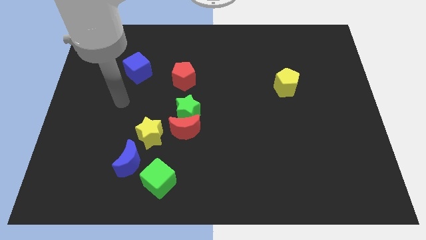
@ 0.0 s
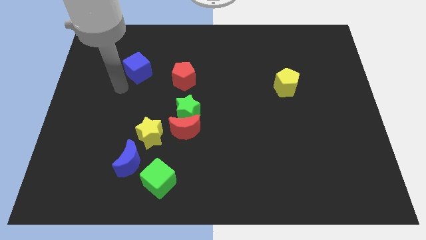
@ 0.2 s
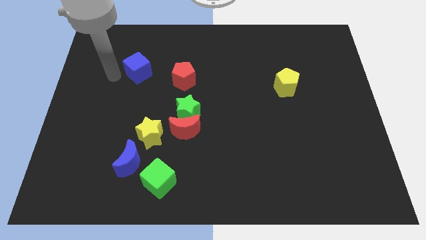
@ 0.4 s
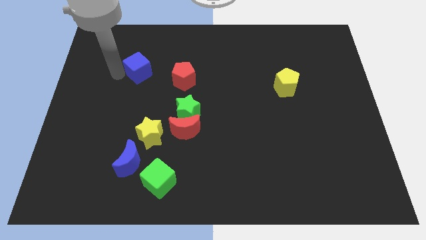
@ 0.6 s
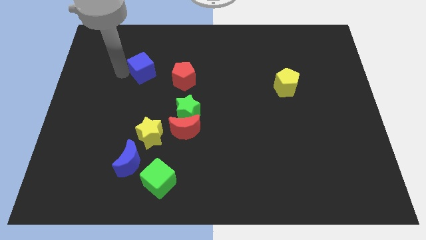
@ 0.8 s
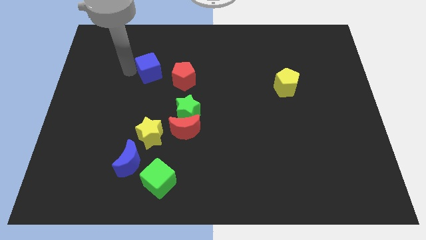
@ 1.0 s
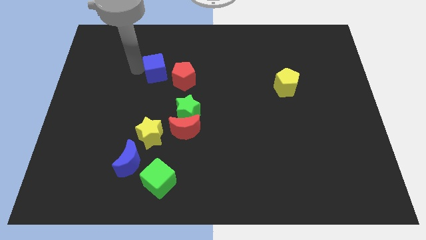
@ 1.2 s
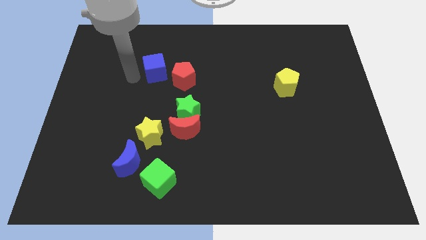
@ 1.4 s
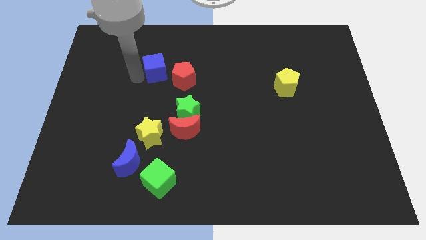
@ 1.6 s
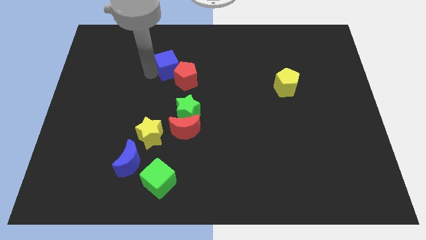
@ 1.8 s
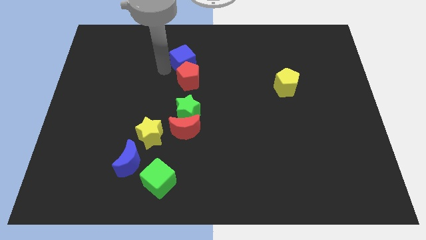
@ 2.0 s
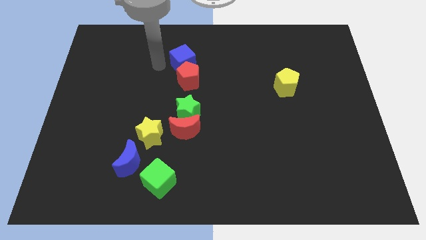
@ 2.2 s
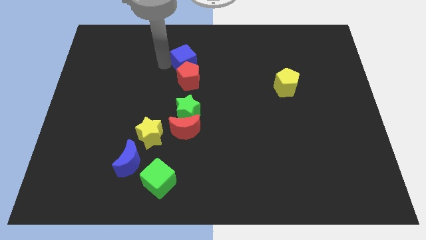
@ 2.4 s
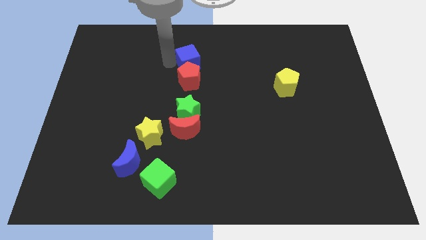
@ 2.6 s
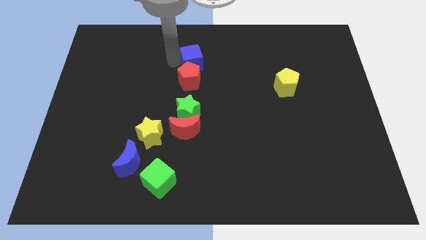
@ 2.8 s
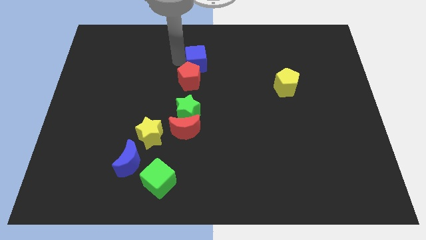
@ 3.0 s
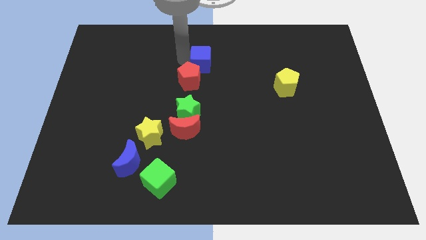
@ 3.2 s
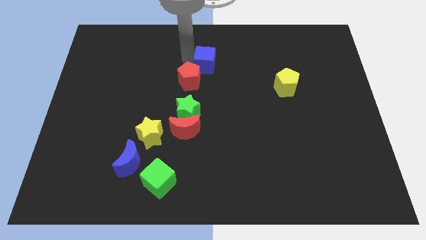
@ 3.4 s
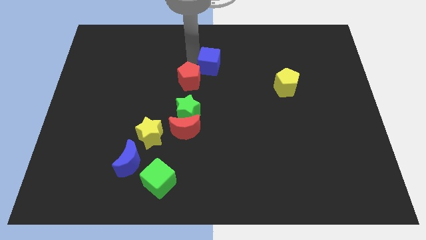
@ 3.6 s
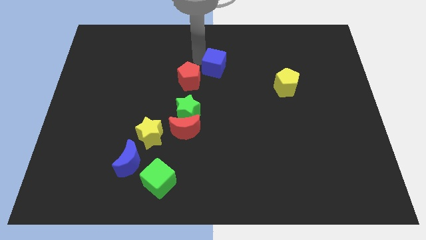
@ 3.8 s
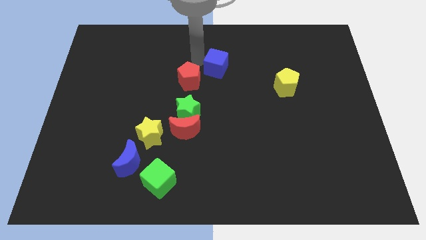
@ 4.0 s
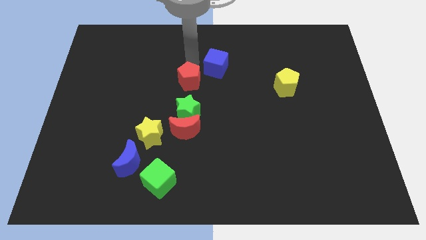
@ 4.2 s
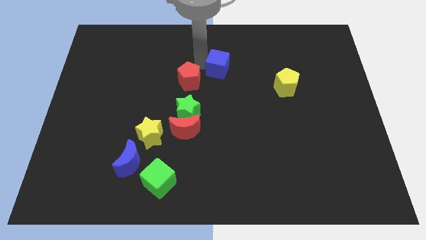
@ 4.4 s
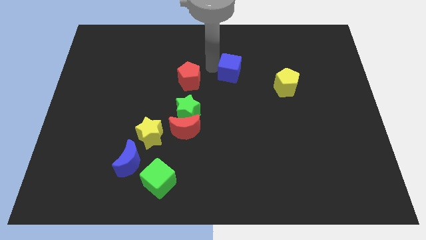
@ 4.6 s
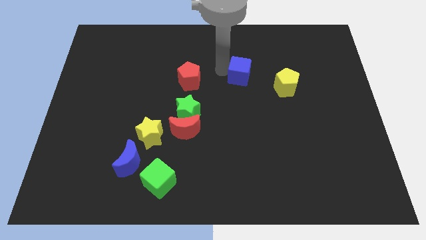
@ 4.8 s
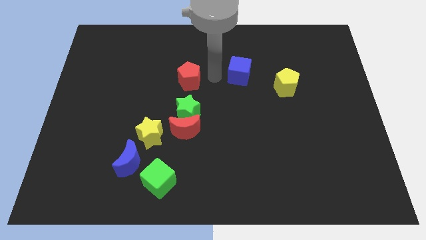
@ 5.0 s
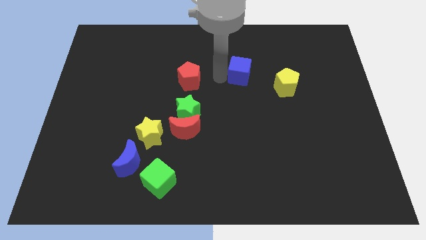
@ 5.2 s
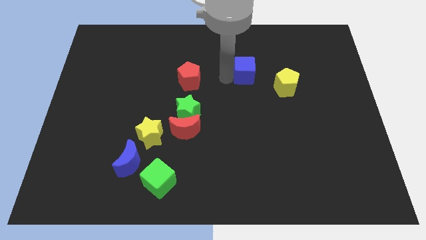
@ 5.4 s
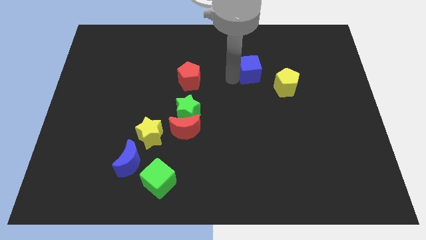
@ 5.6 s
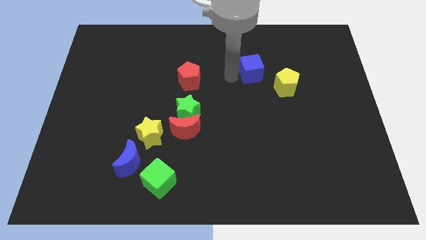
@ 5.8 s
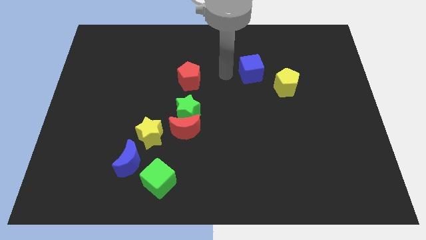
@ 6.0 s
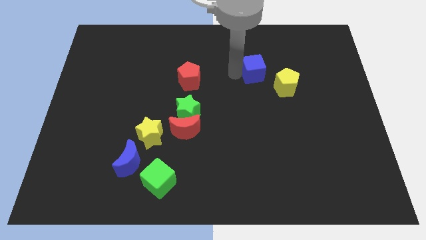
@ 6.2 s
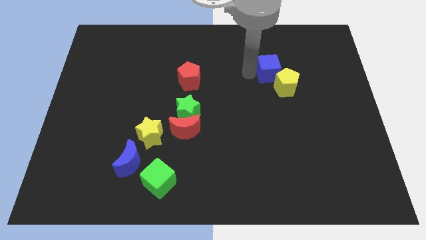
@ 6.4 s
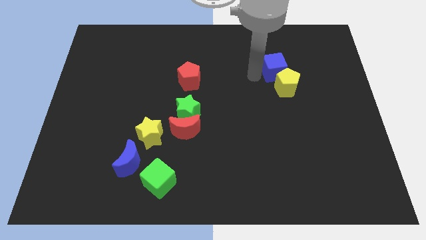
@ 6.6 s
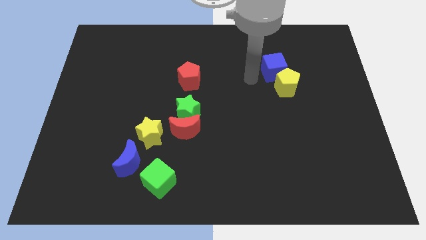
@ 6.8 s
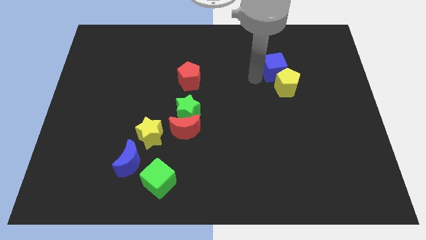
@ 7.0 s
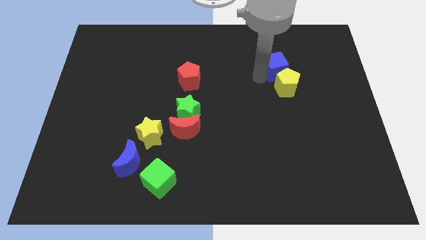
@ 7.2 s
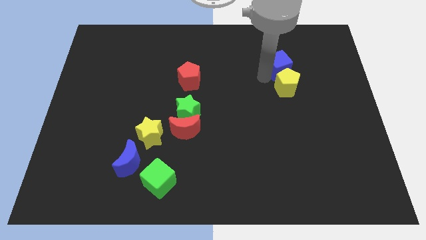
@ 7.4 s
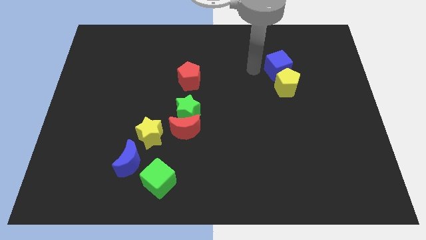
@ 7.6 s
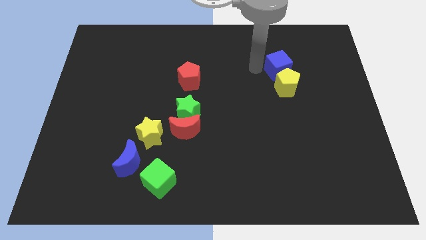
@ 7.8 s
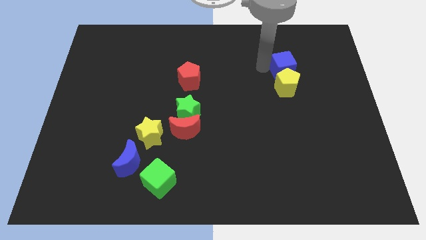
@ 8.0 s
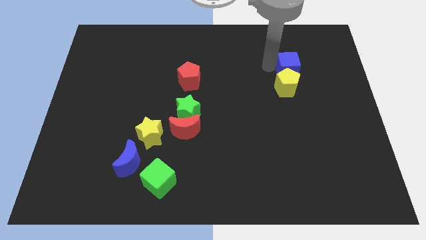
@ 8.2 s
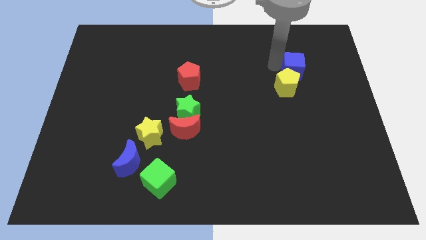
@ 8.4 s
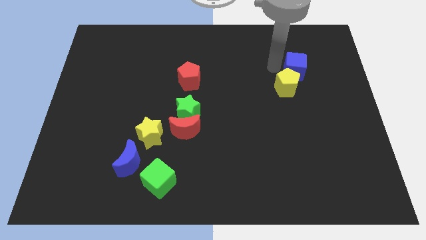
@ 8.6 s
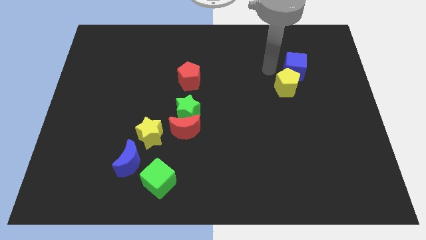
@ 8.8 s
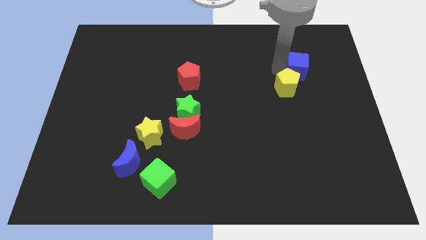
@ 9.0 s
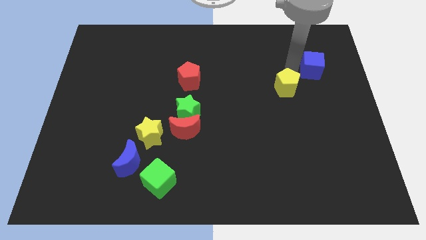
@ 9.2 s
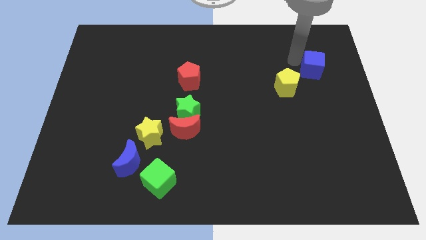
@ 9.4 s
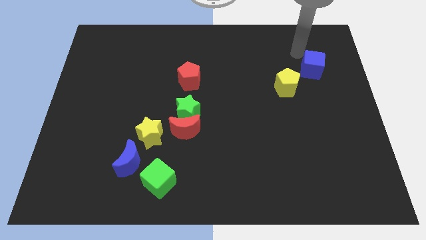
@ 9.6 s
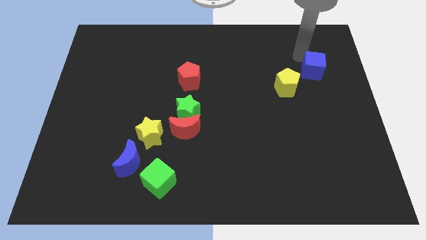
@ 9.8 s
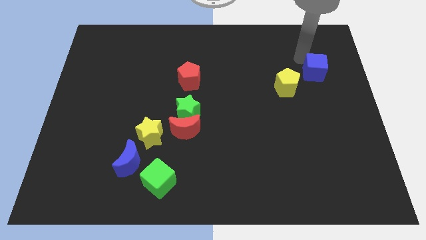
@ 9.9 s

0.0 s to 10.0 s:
move the blue cube just right of the yellow pentagon

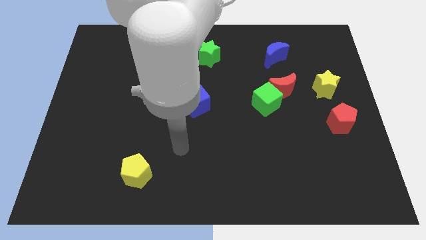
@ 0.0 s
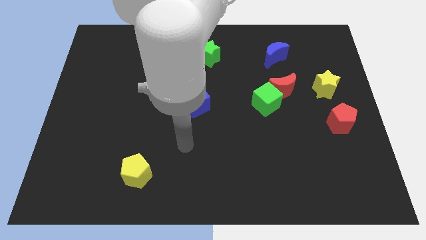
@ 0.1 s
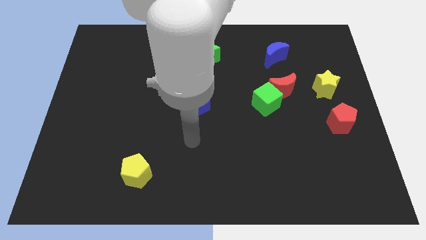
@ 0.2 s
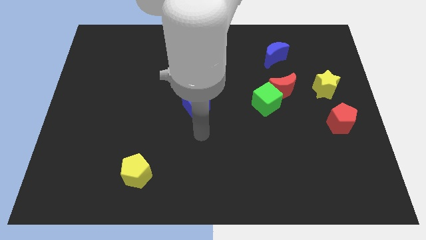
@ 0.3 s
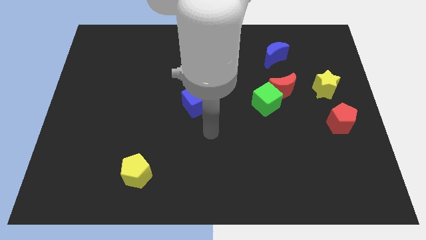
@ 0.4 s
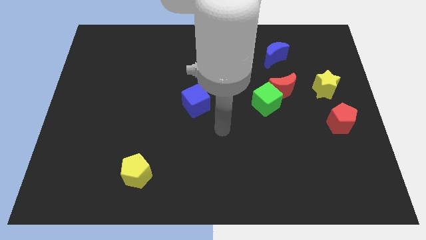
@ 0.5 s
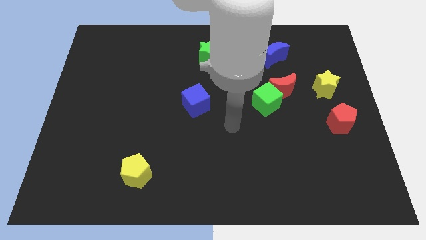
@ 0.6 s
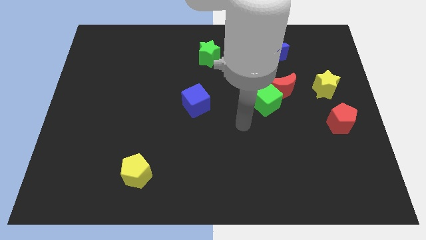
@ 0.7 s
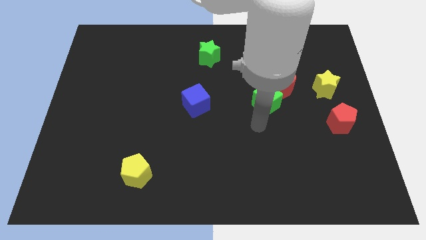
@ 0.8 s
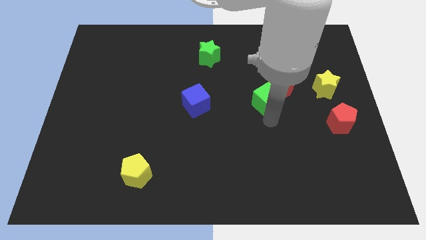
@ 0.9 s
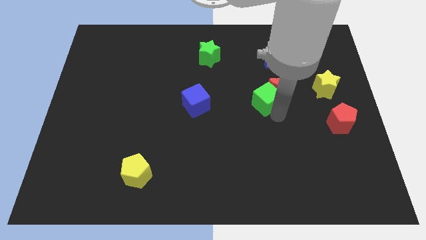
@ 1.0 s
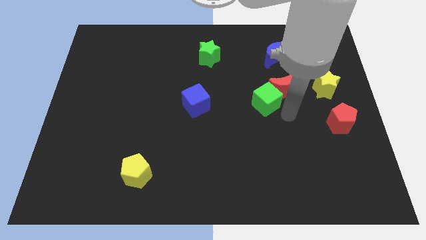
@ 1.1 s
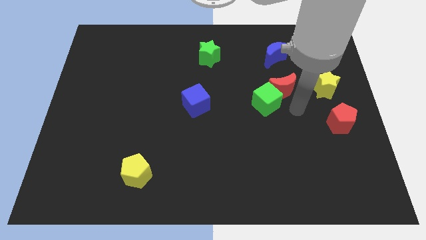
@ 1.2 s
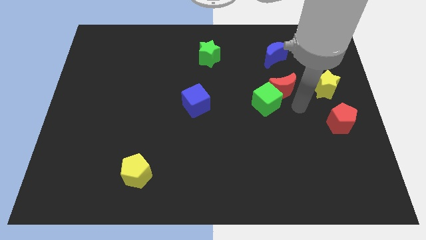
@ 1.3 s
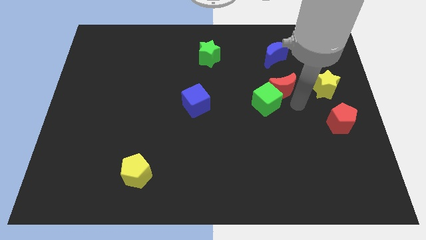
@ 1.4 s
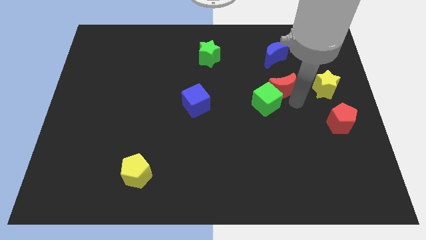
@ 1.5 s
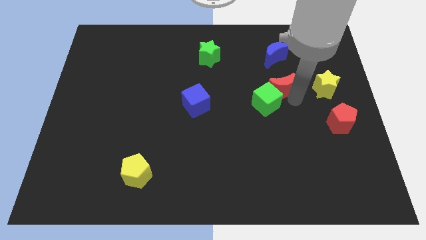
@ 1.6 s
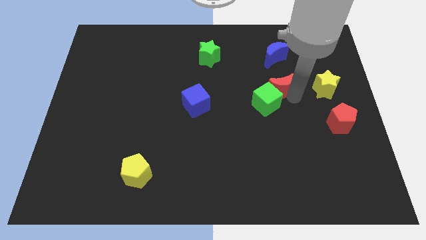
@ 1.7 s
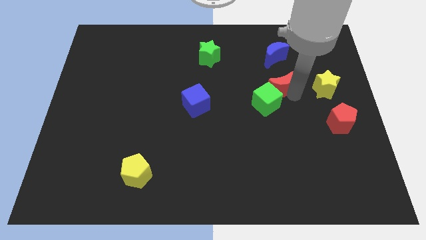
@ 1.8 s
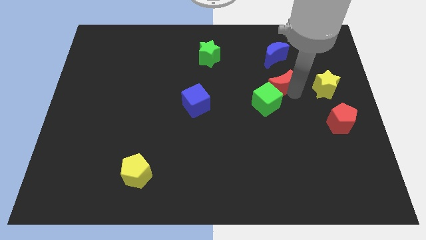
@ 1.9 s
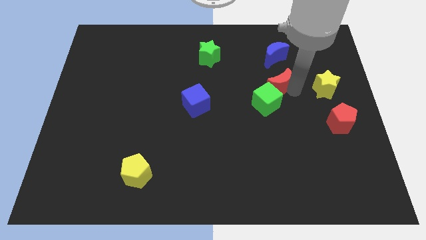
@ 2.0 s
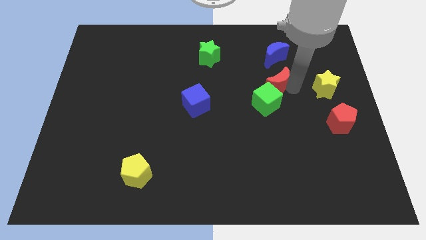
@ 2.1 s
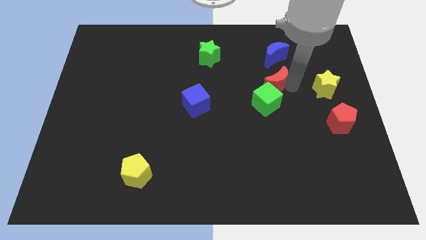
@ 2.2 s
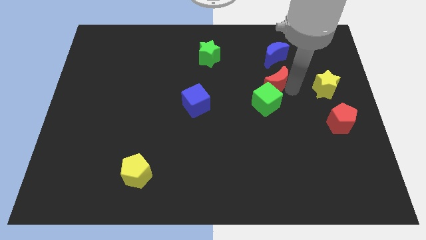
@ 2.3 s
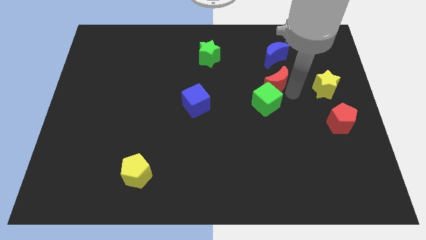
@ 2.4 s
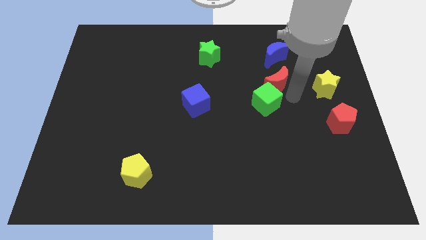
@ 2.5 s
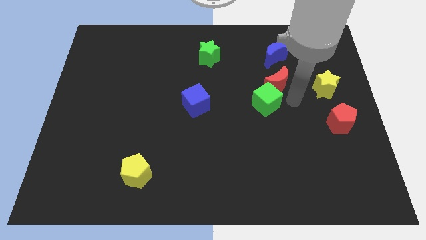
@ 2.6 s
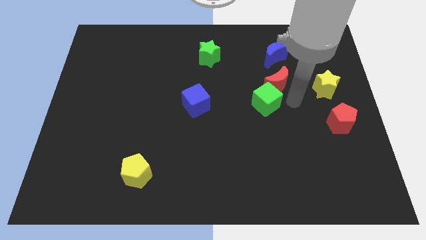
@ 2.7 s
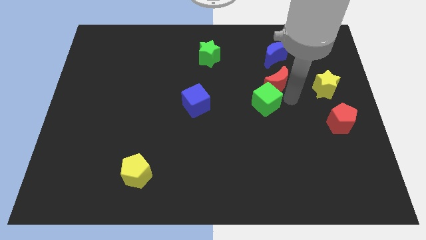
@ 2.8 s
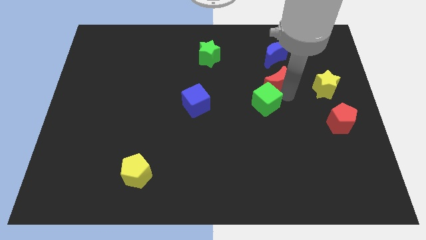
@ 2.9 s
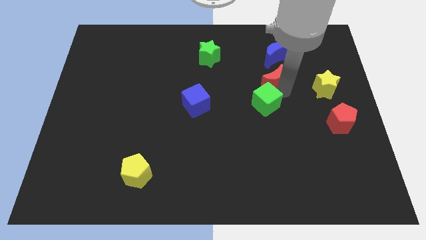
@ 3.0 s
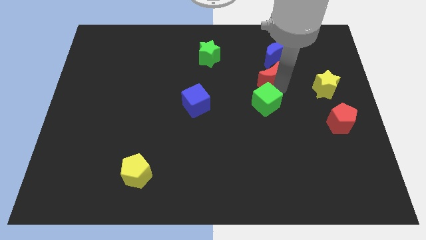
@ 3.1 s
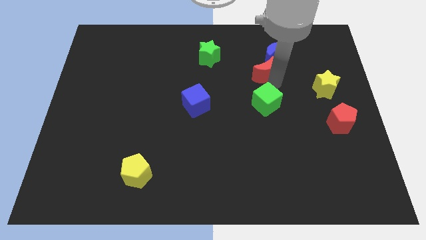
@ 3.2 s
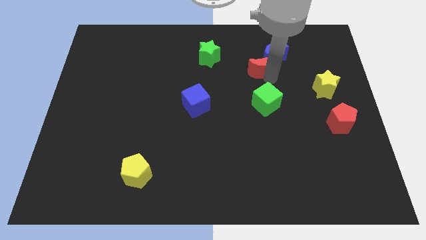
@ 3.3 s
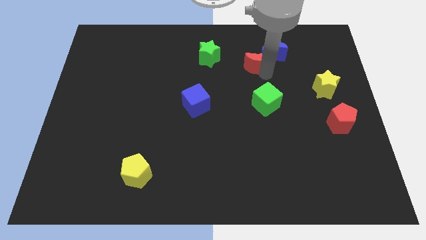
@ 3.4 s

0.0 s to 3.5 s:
move the red moon to the right side of the green star
